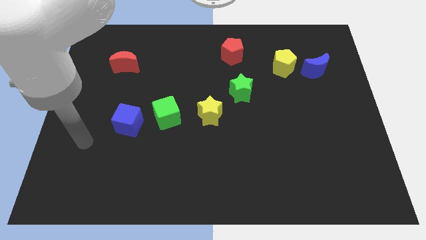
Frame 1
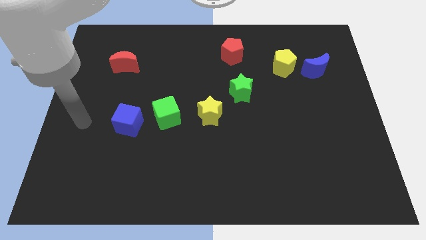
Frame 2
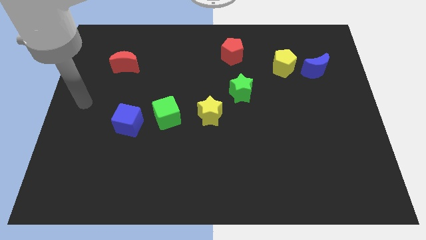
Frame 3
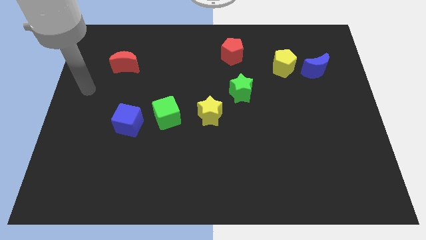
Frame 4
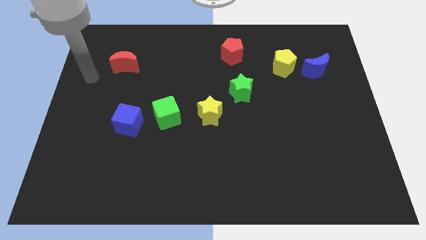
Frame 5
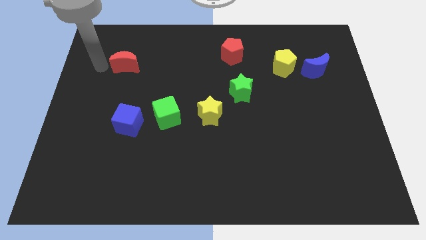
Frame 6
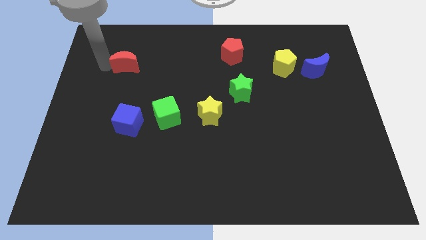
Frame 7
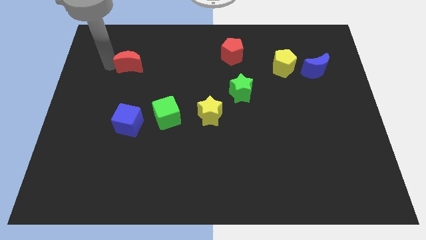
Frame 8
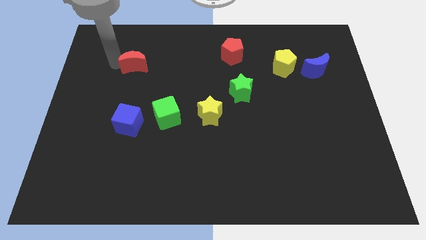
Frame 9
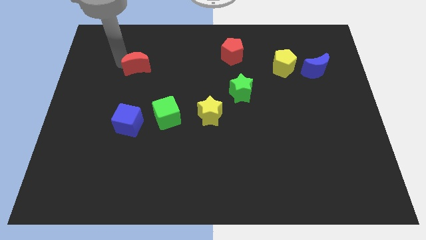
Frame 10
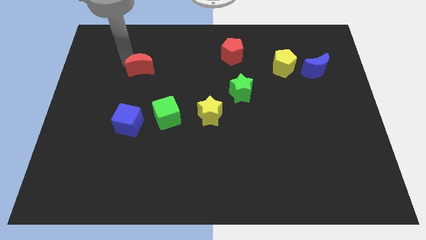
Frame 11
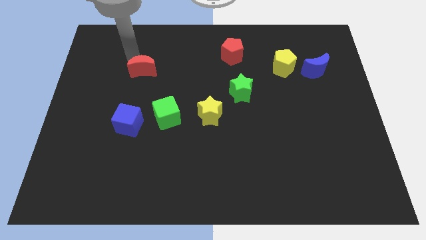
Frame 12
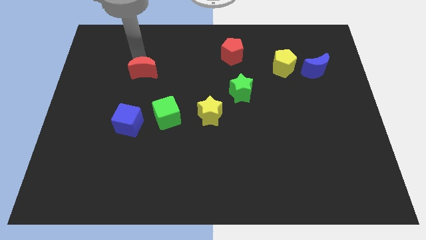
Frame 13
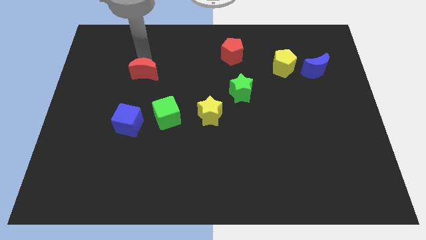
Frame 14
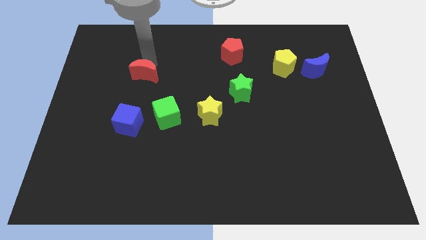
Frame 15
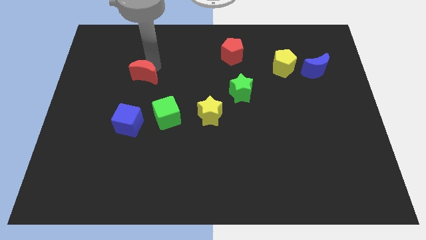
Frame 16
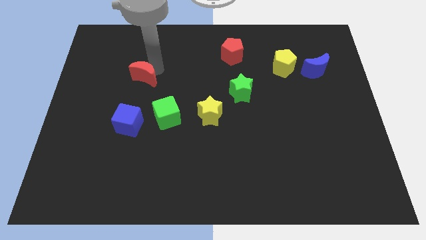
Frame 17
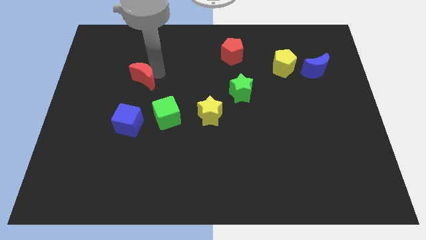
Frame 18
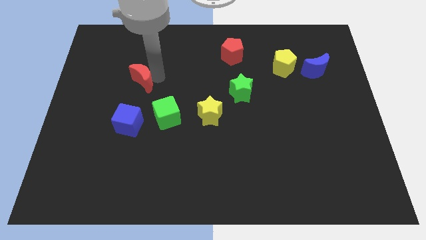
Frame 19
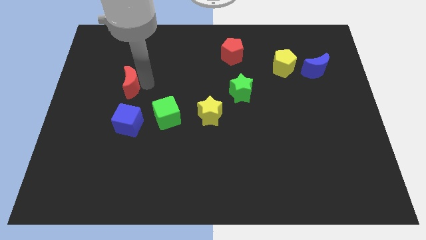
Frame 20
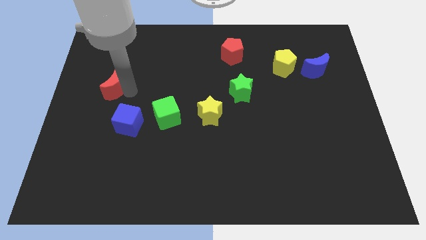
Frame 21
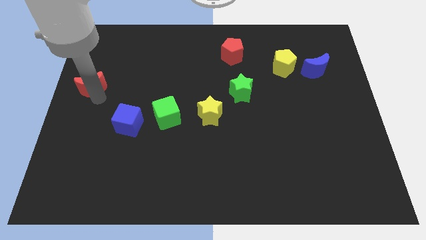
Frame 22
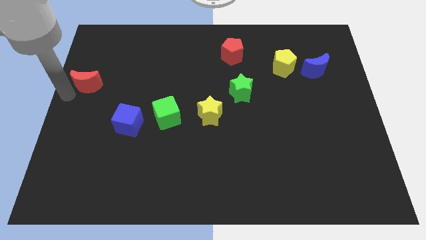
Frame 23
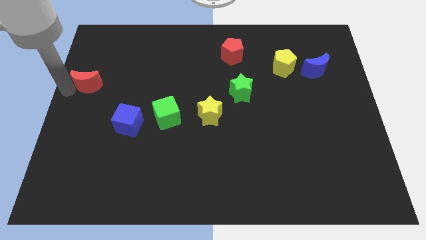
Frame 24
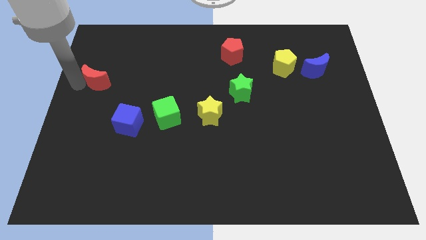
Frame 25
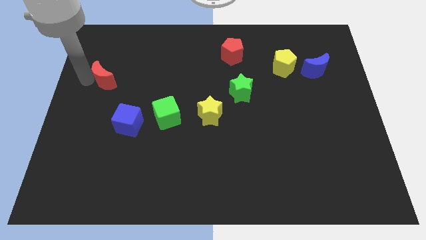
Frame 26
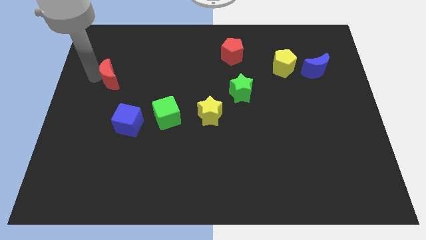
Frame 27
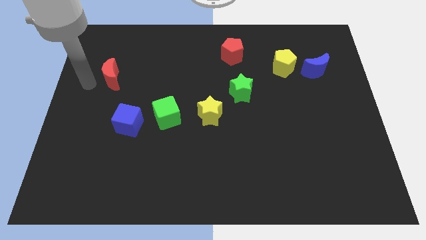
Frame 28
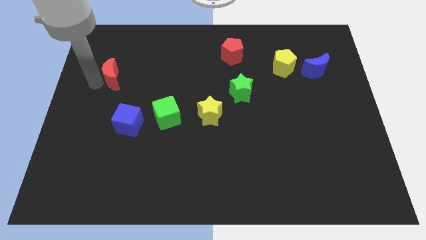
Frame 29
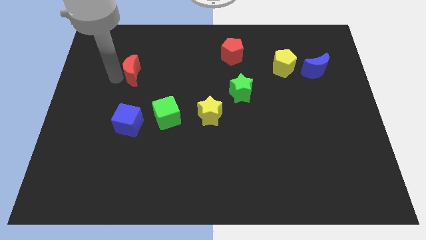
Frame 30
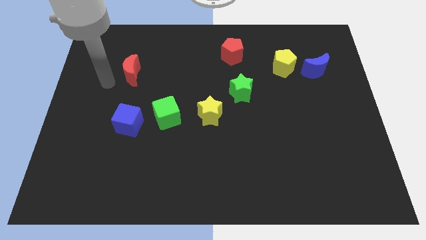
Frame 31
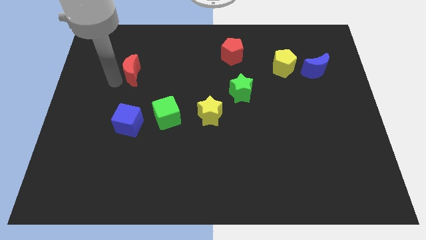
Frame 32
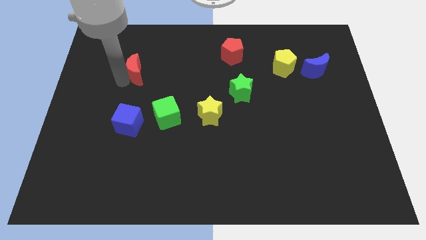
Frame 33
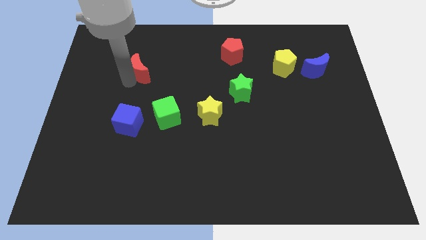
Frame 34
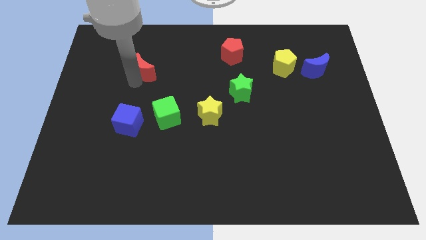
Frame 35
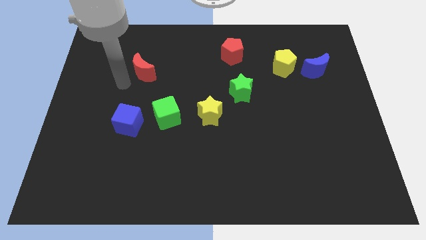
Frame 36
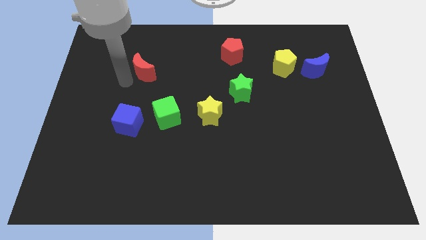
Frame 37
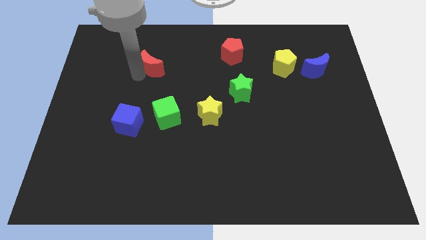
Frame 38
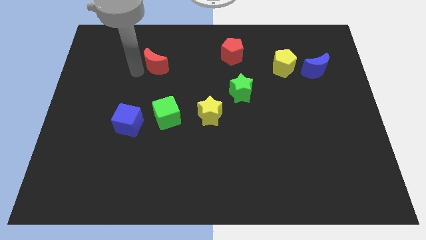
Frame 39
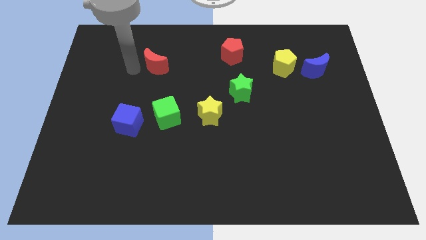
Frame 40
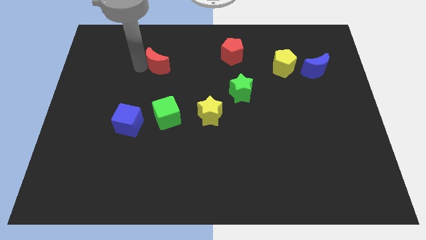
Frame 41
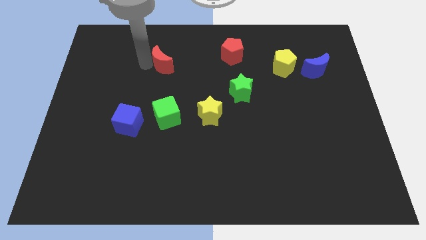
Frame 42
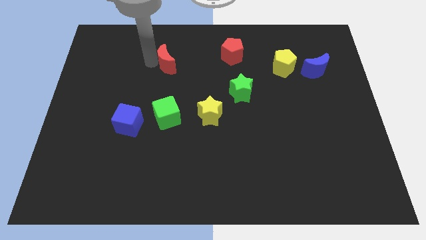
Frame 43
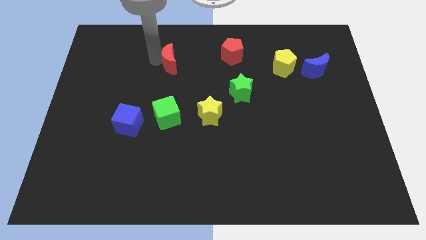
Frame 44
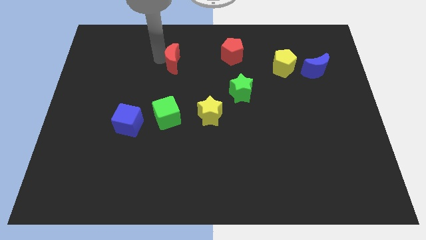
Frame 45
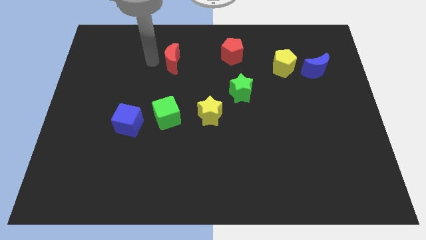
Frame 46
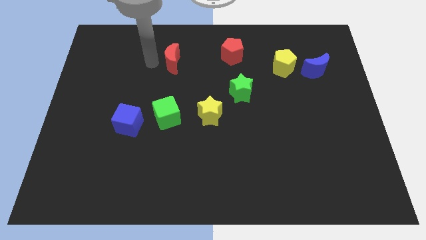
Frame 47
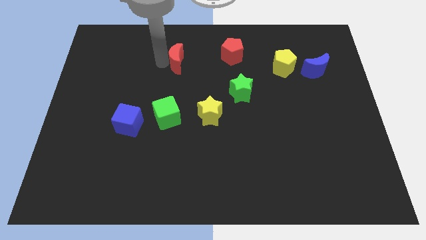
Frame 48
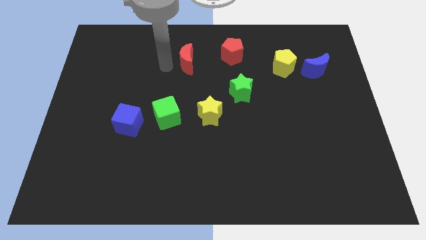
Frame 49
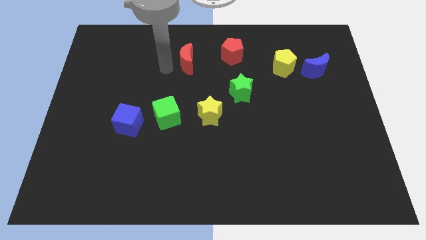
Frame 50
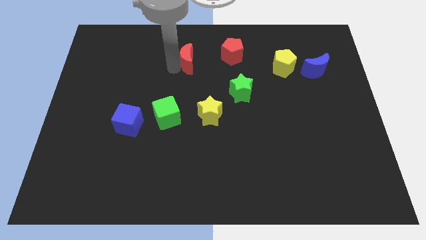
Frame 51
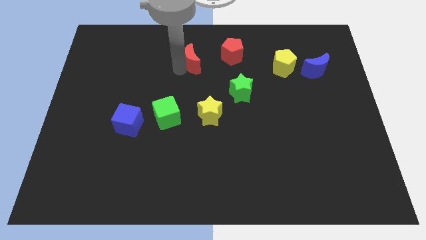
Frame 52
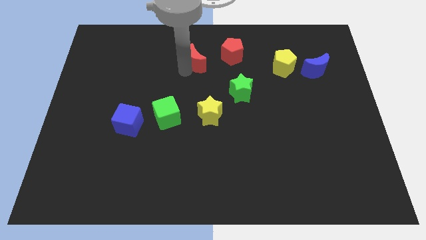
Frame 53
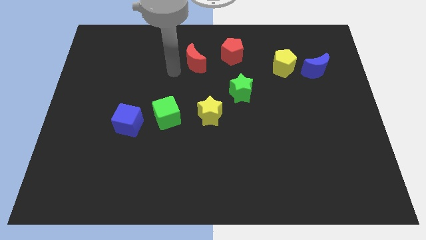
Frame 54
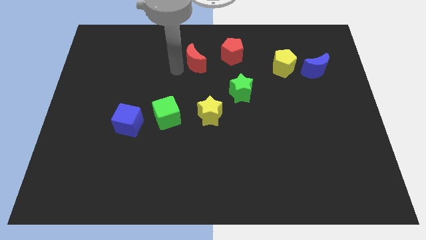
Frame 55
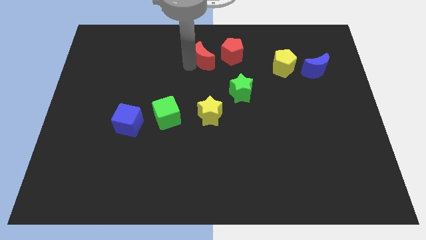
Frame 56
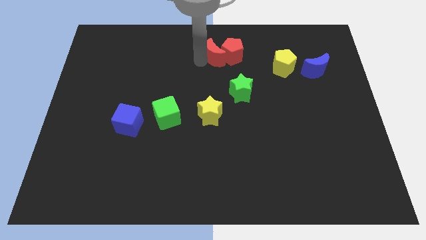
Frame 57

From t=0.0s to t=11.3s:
move the red moon towards the red pentagon

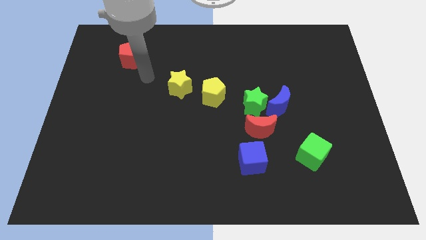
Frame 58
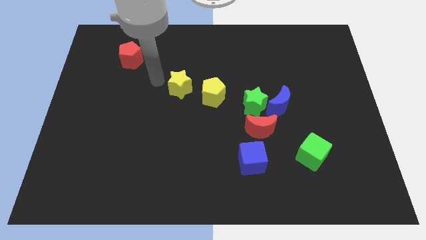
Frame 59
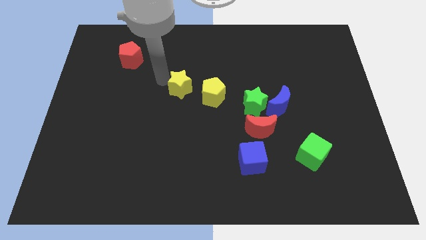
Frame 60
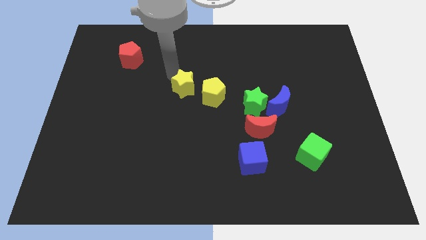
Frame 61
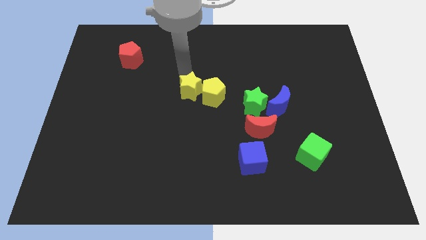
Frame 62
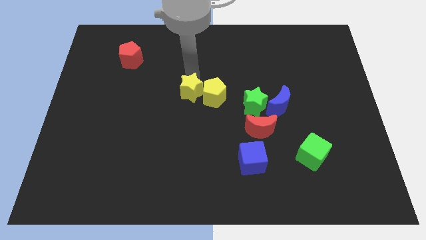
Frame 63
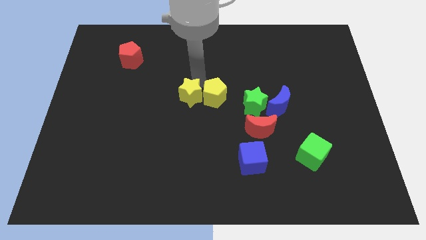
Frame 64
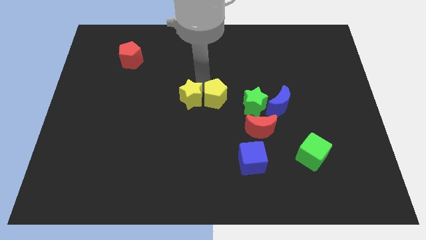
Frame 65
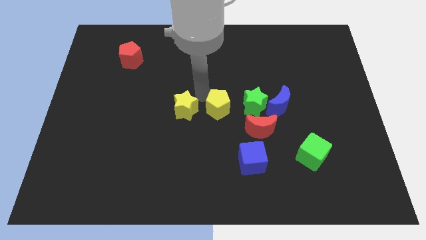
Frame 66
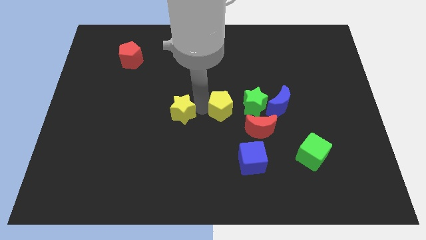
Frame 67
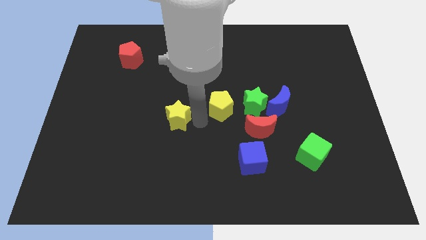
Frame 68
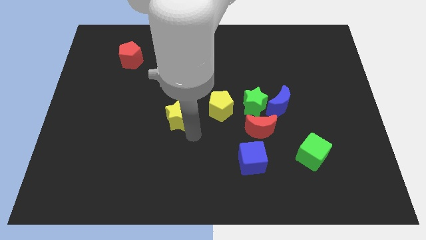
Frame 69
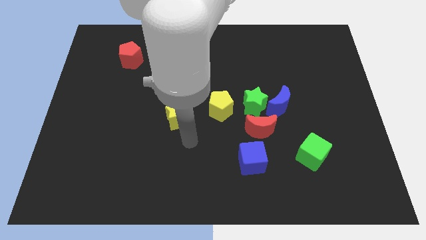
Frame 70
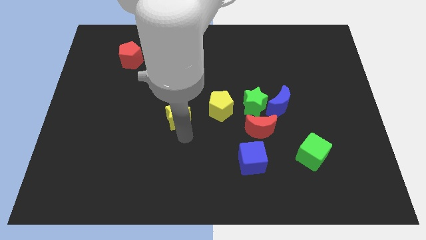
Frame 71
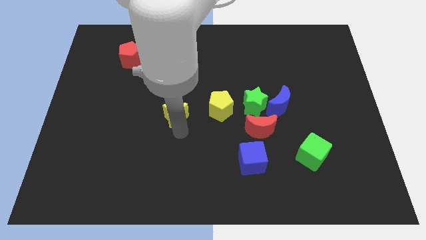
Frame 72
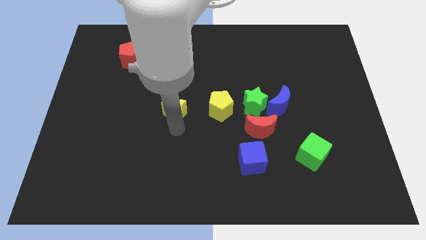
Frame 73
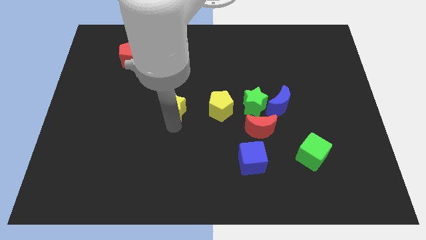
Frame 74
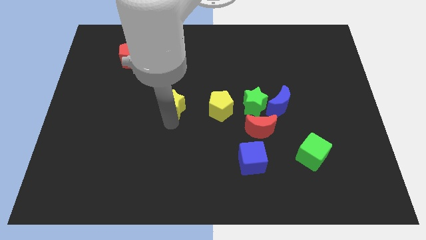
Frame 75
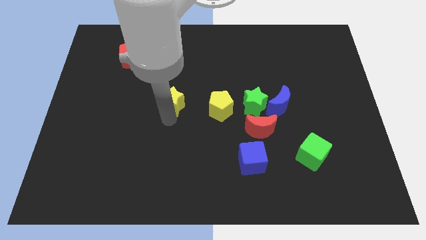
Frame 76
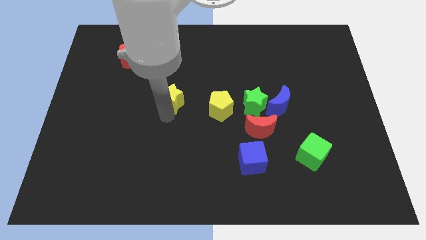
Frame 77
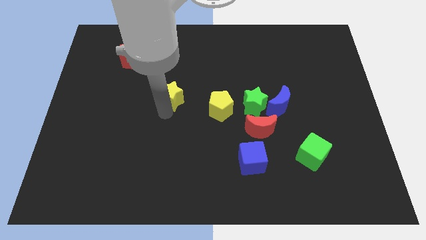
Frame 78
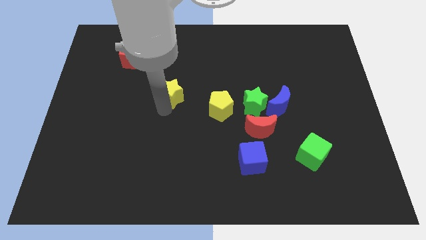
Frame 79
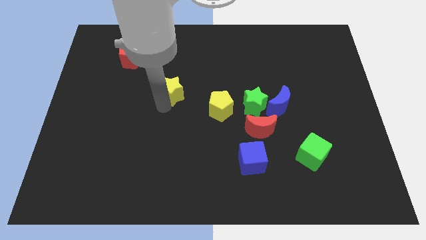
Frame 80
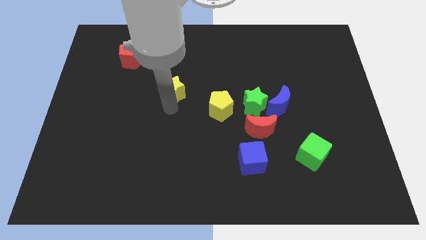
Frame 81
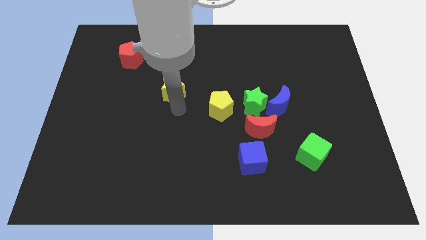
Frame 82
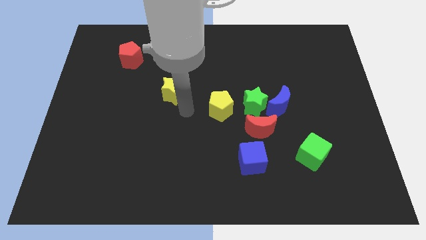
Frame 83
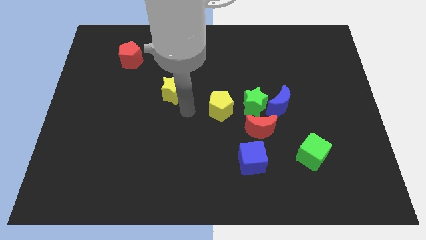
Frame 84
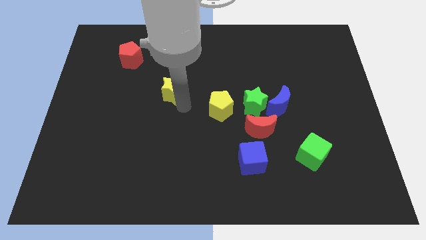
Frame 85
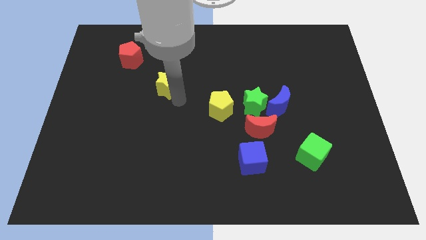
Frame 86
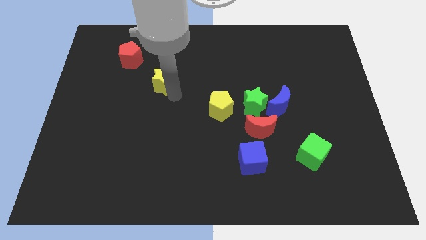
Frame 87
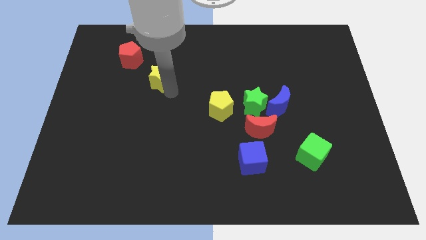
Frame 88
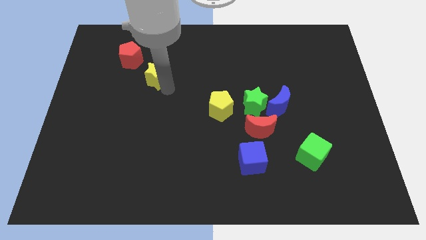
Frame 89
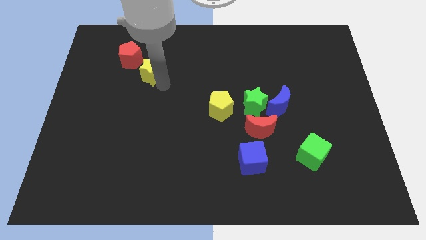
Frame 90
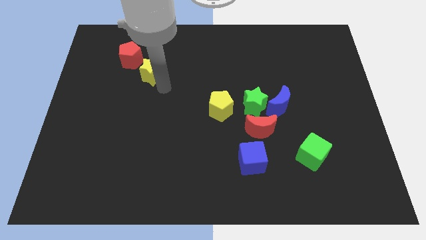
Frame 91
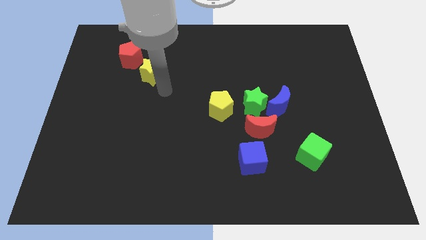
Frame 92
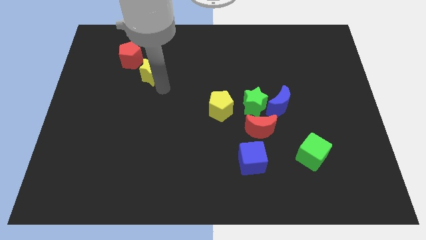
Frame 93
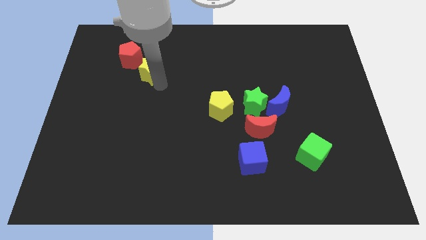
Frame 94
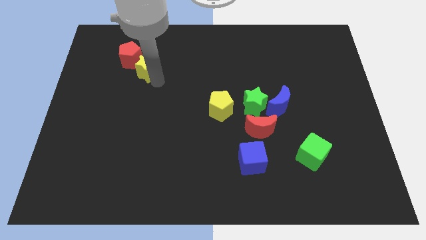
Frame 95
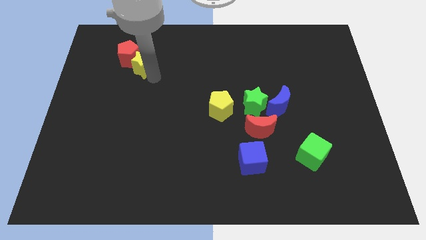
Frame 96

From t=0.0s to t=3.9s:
slide the yellow star close to the red pentagon
